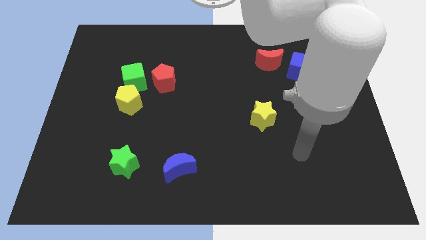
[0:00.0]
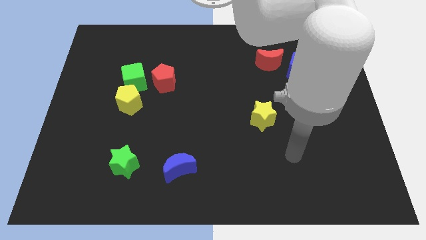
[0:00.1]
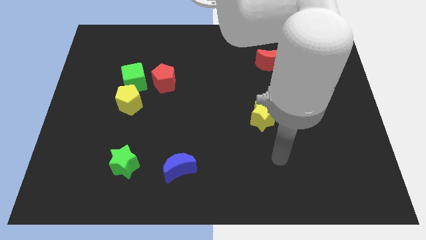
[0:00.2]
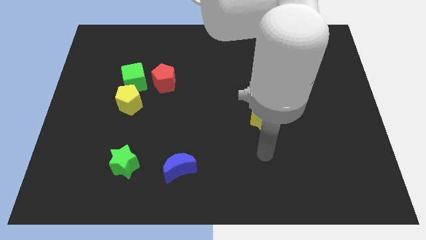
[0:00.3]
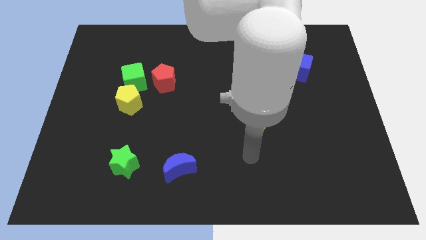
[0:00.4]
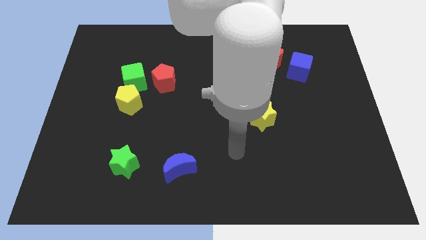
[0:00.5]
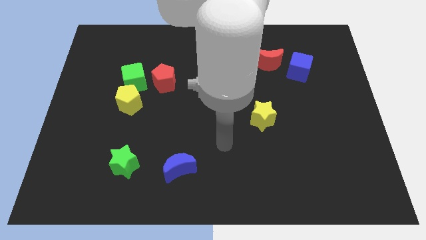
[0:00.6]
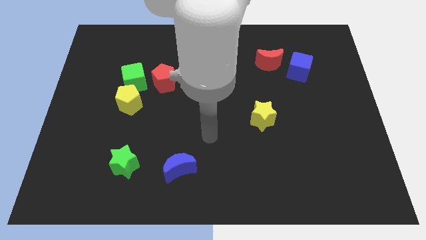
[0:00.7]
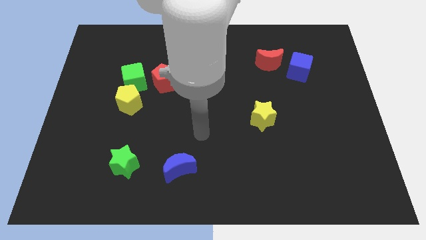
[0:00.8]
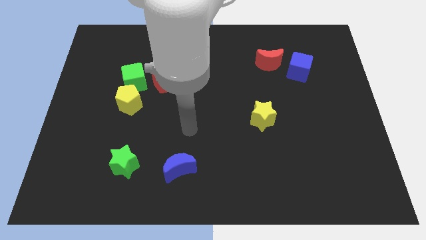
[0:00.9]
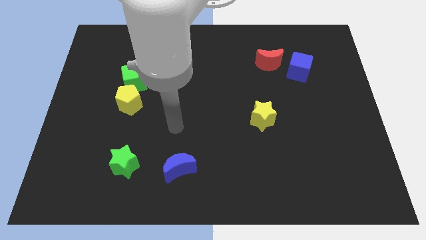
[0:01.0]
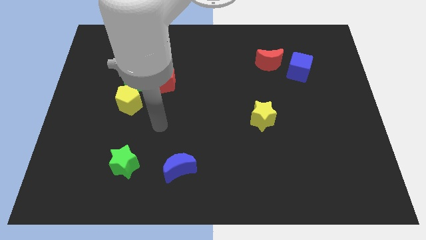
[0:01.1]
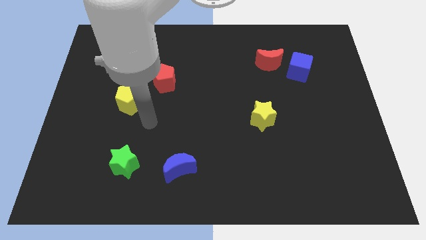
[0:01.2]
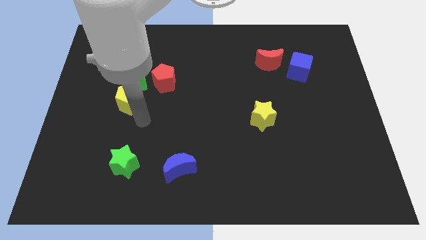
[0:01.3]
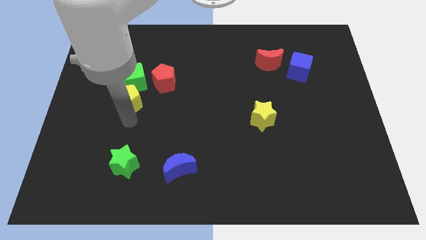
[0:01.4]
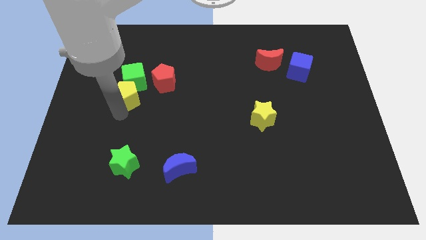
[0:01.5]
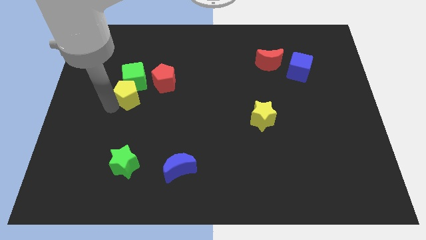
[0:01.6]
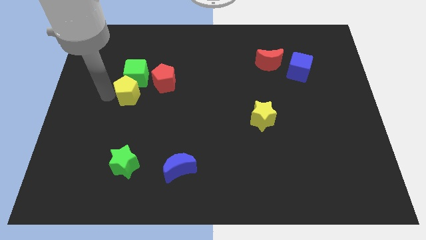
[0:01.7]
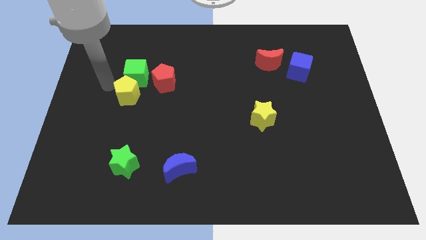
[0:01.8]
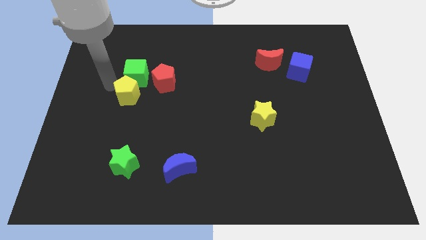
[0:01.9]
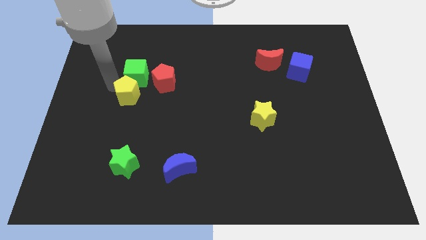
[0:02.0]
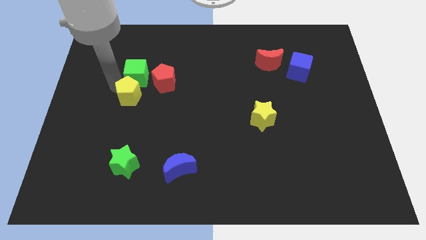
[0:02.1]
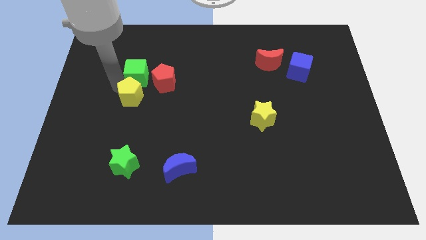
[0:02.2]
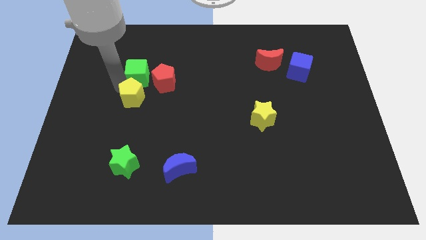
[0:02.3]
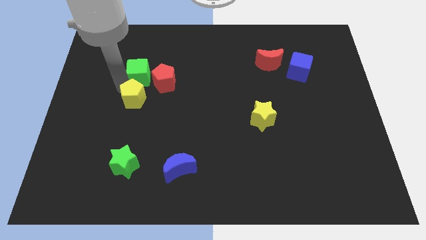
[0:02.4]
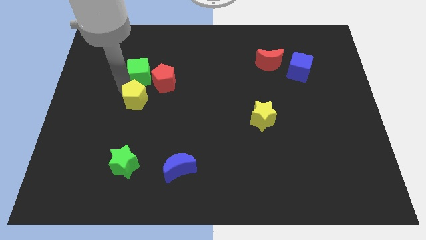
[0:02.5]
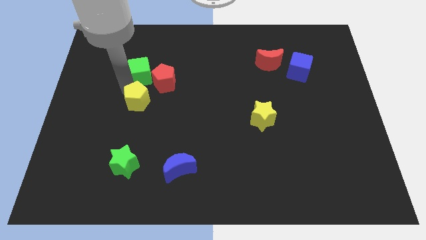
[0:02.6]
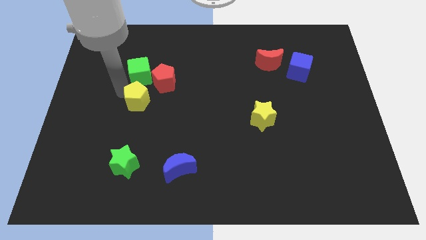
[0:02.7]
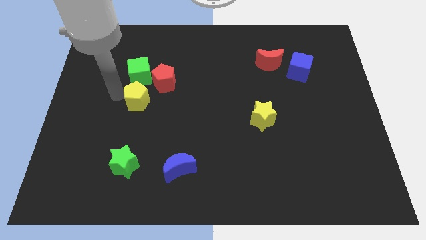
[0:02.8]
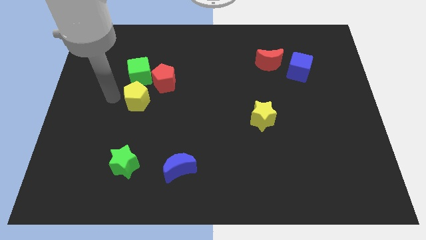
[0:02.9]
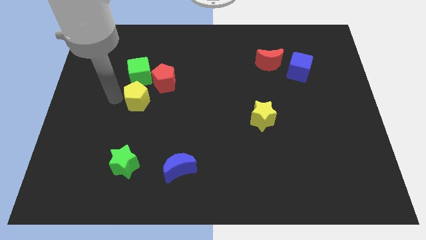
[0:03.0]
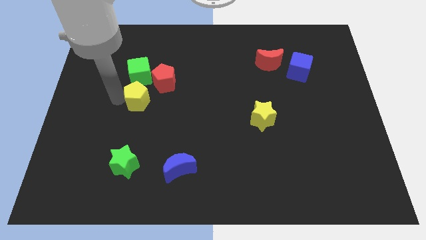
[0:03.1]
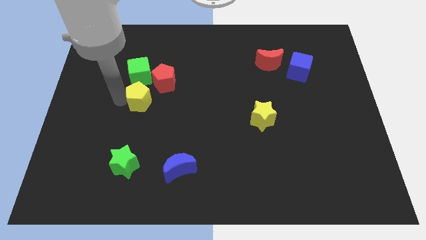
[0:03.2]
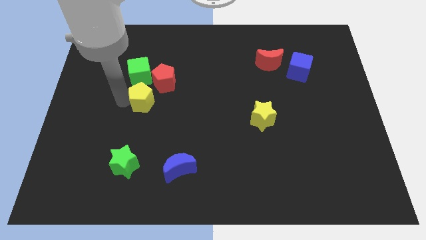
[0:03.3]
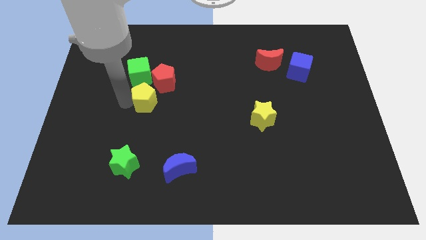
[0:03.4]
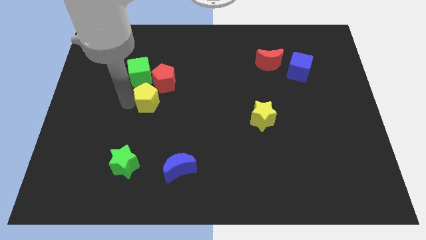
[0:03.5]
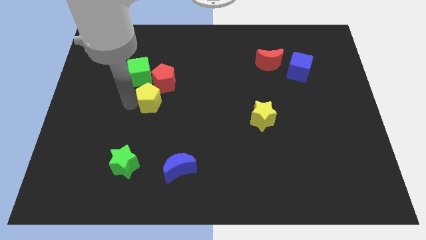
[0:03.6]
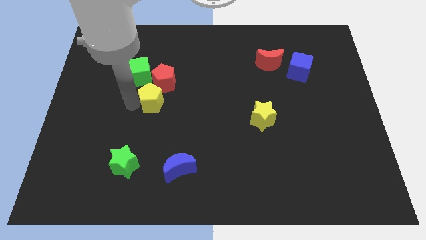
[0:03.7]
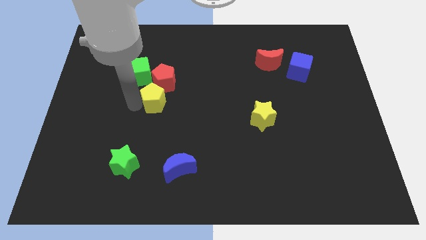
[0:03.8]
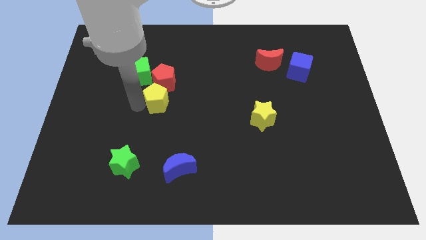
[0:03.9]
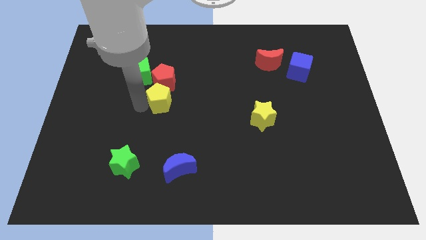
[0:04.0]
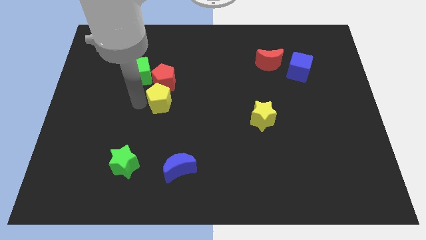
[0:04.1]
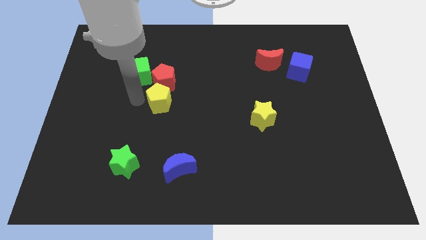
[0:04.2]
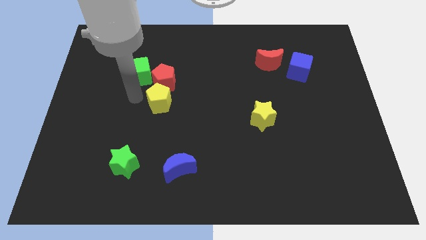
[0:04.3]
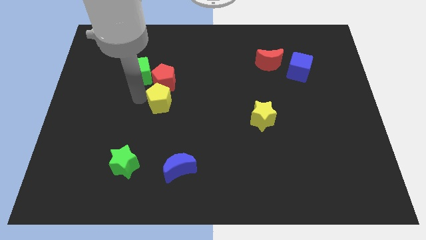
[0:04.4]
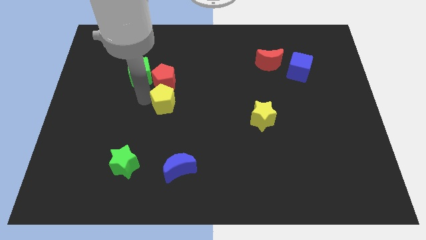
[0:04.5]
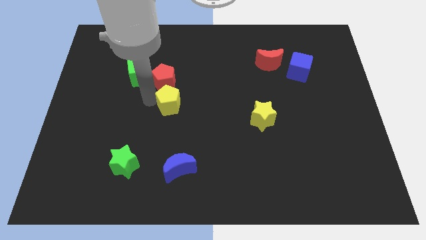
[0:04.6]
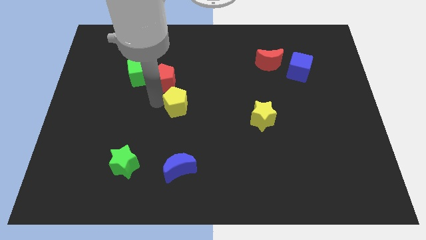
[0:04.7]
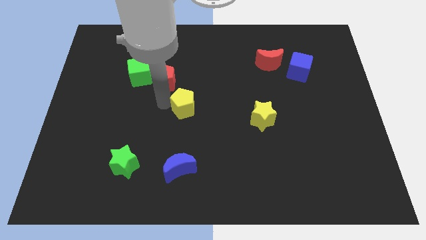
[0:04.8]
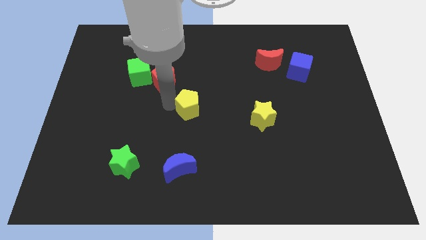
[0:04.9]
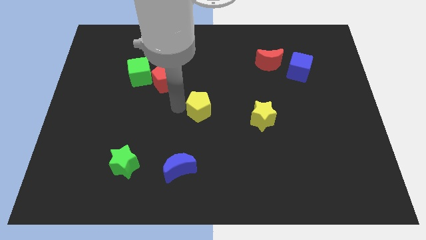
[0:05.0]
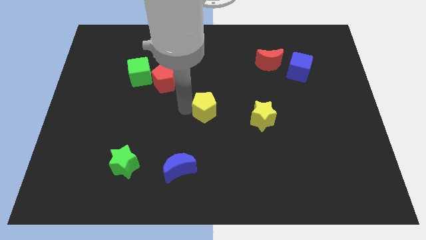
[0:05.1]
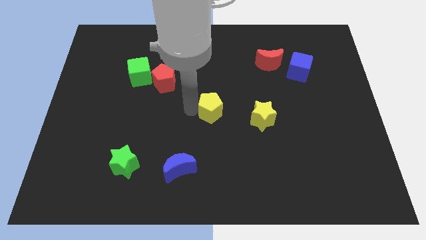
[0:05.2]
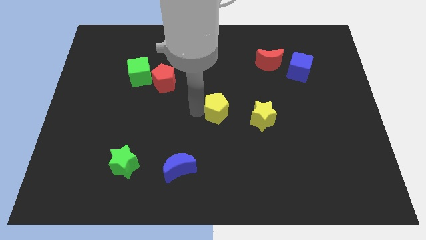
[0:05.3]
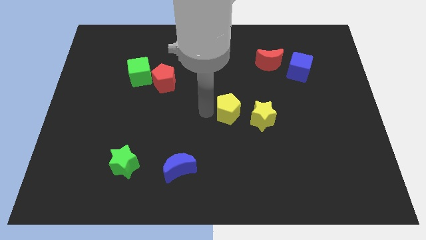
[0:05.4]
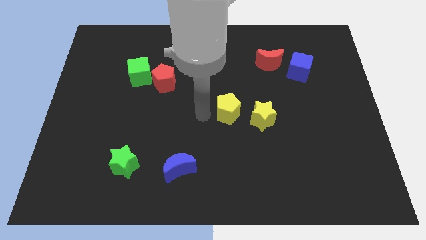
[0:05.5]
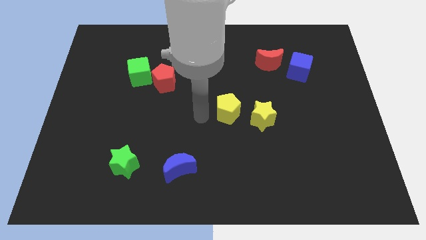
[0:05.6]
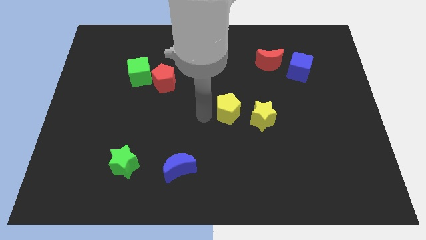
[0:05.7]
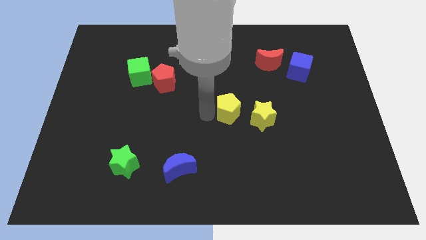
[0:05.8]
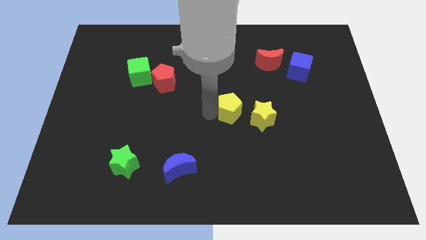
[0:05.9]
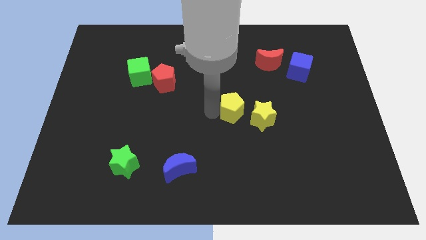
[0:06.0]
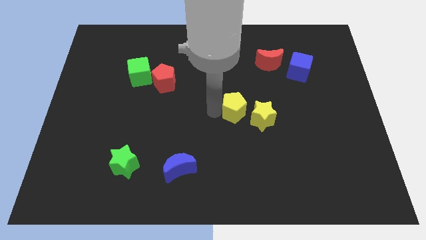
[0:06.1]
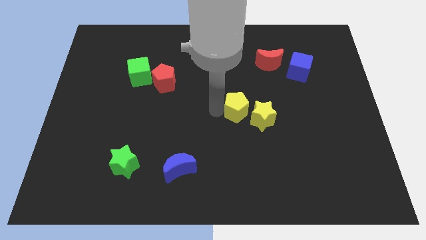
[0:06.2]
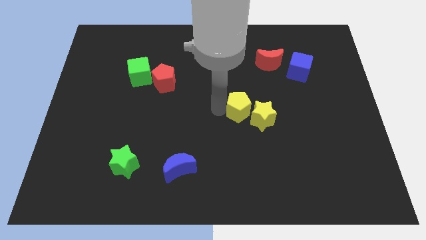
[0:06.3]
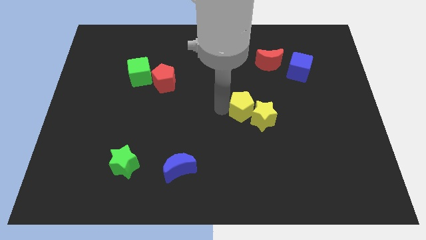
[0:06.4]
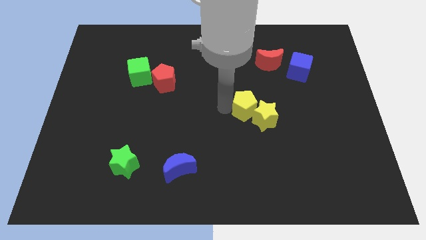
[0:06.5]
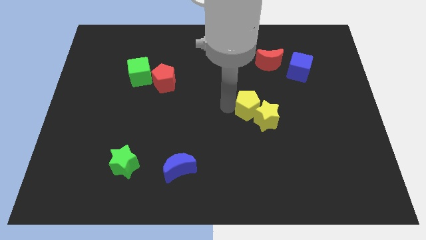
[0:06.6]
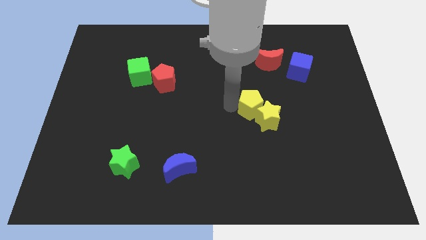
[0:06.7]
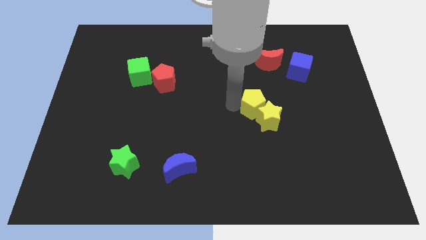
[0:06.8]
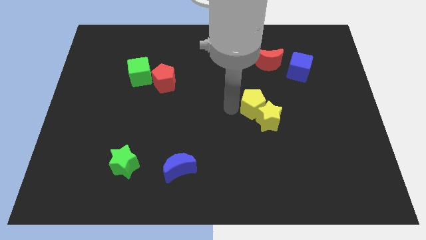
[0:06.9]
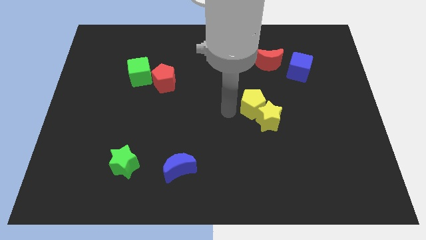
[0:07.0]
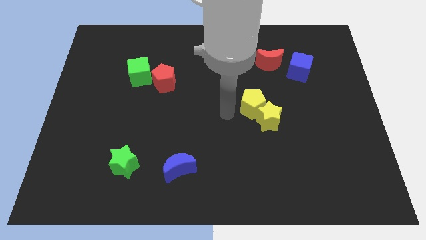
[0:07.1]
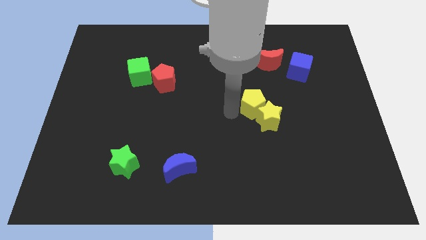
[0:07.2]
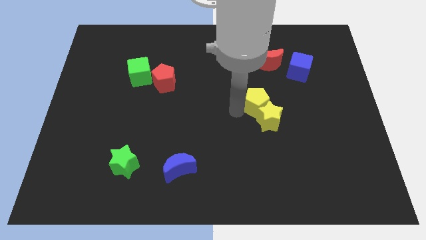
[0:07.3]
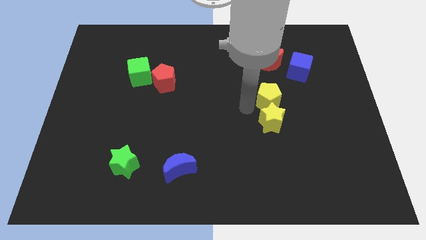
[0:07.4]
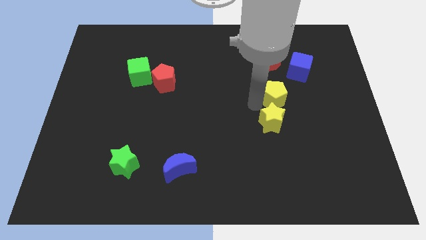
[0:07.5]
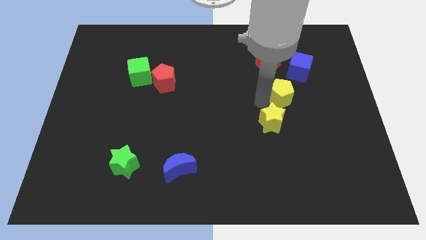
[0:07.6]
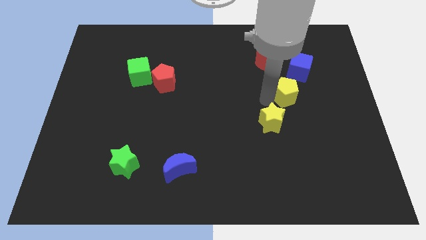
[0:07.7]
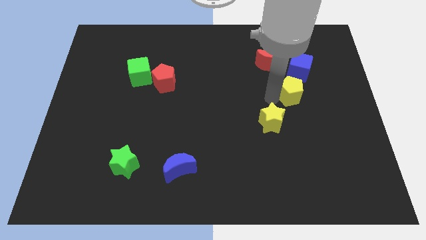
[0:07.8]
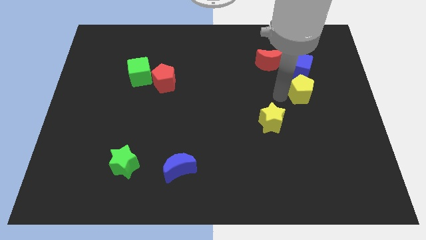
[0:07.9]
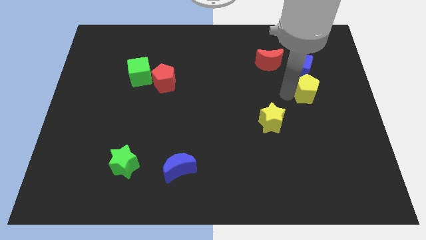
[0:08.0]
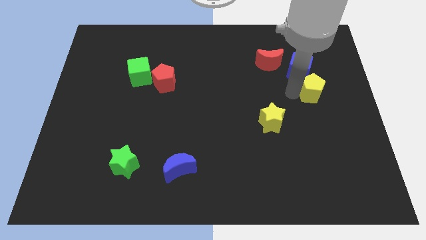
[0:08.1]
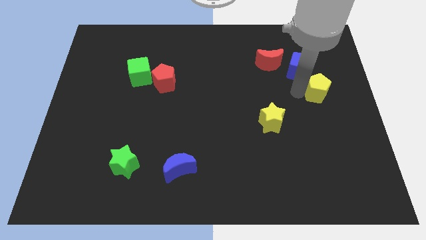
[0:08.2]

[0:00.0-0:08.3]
push the yellow pentagon to the right side
